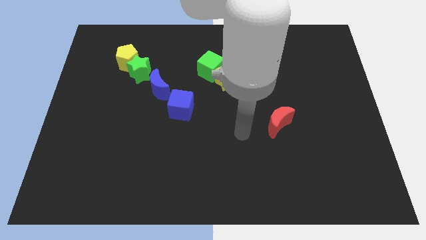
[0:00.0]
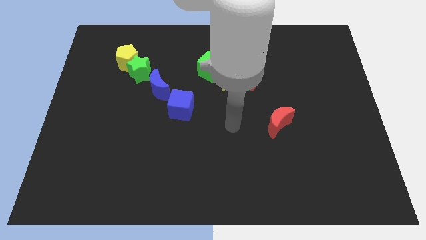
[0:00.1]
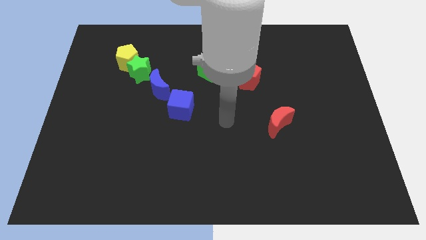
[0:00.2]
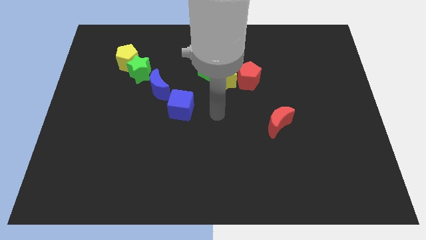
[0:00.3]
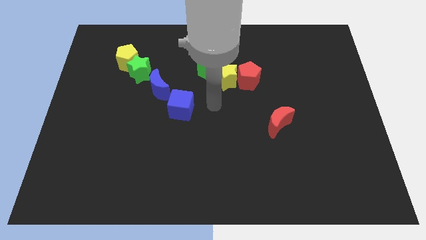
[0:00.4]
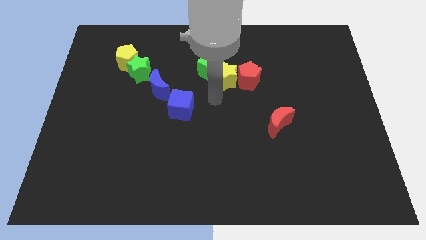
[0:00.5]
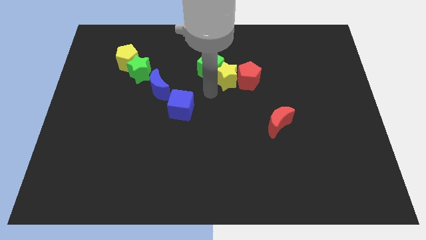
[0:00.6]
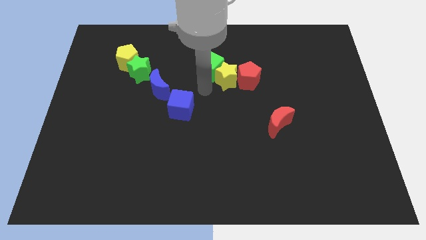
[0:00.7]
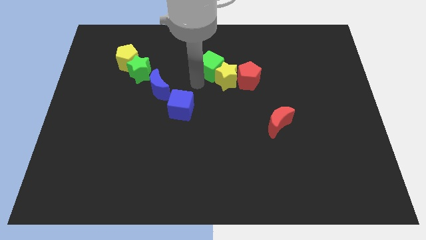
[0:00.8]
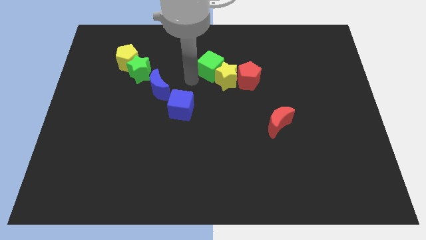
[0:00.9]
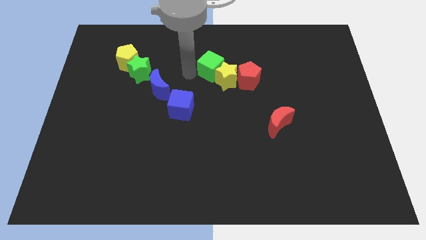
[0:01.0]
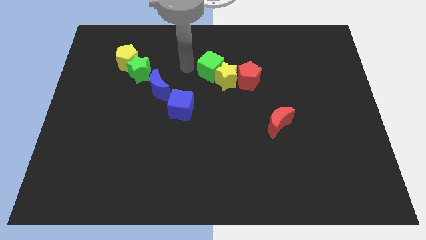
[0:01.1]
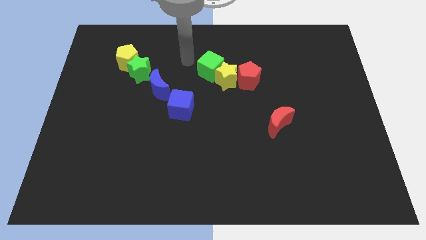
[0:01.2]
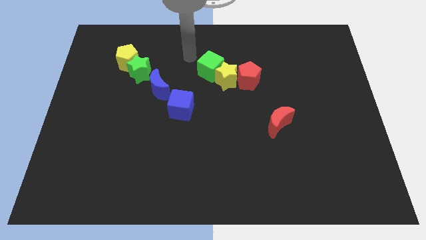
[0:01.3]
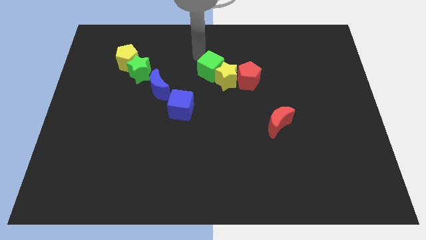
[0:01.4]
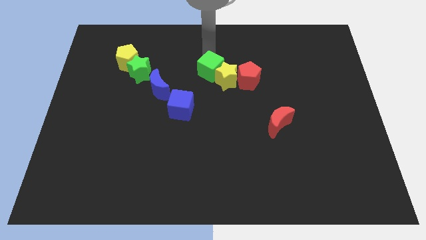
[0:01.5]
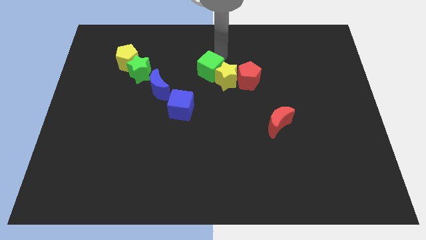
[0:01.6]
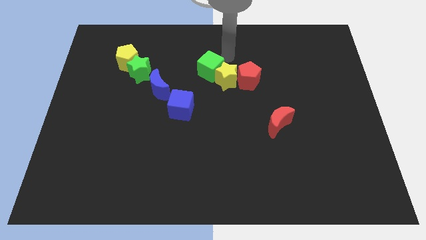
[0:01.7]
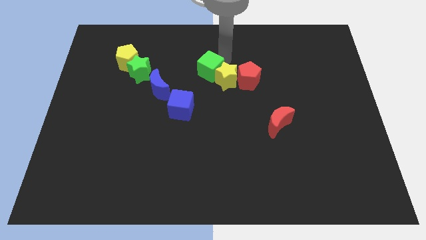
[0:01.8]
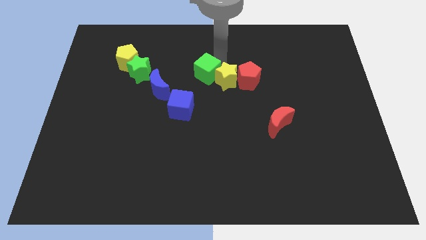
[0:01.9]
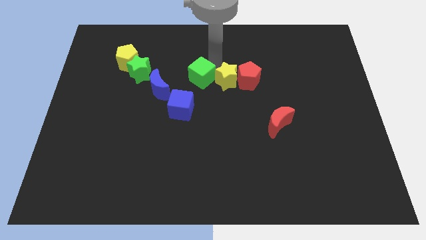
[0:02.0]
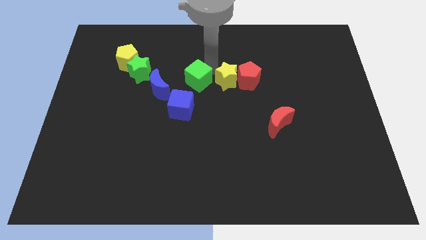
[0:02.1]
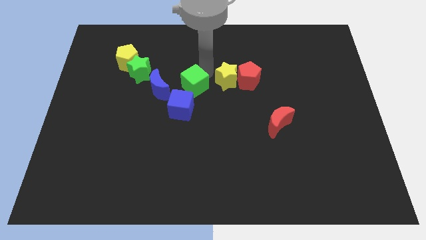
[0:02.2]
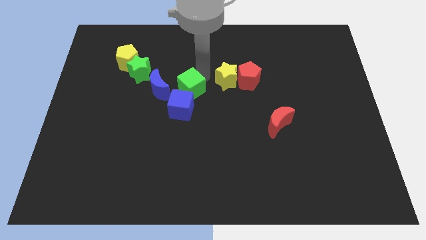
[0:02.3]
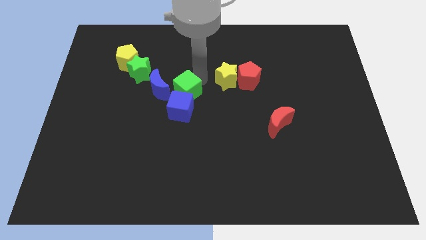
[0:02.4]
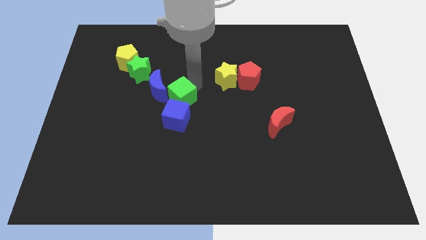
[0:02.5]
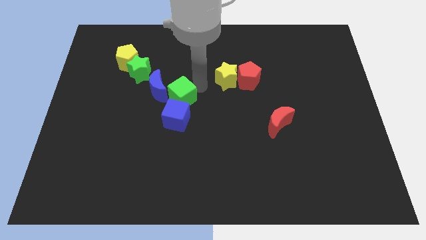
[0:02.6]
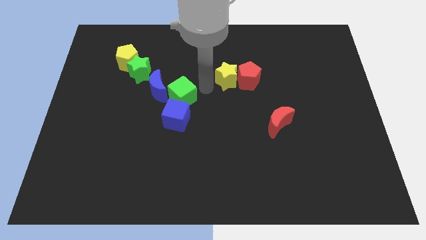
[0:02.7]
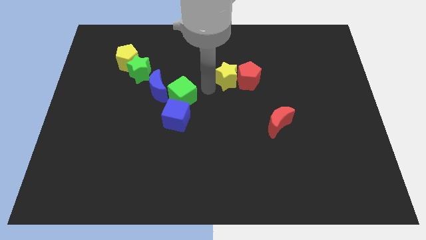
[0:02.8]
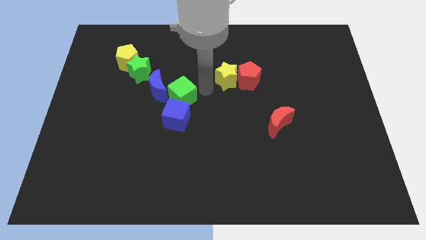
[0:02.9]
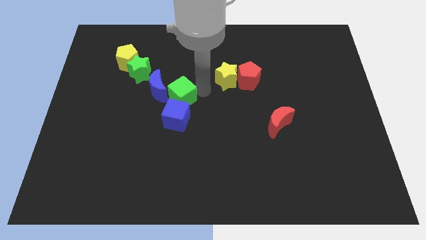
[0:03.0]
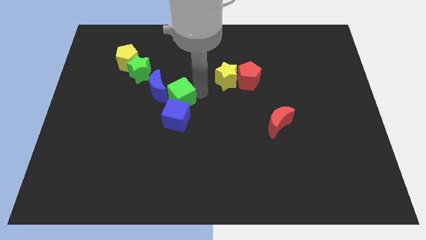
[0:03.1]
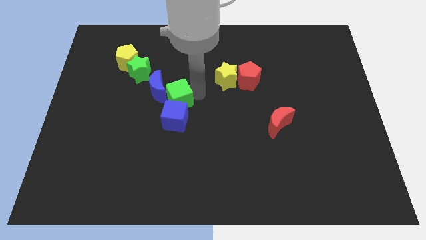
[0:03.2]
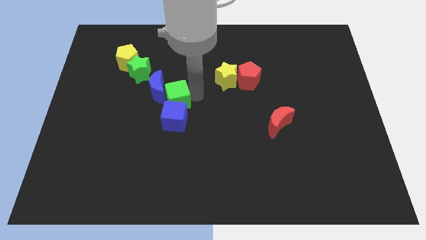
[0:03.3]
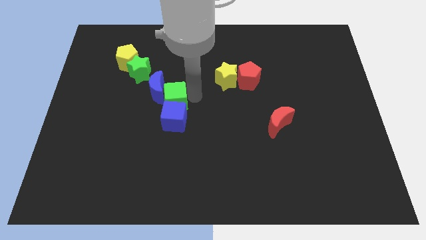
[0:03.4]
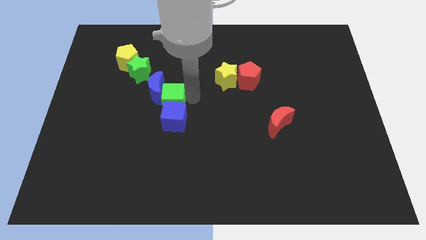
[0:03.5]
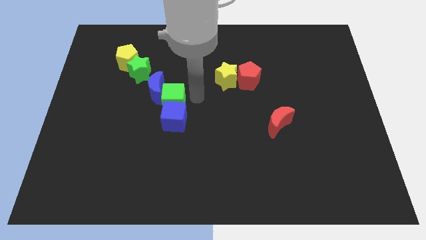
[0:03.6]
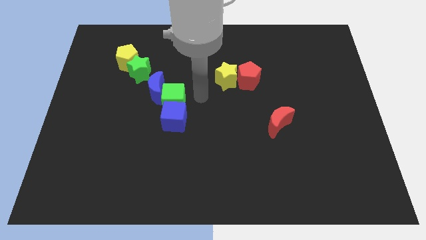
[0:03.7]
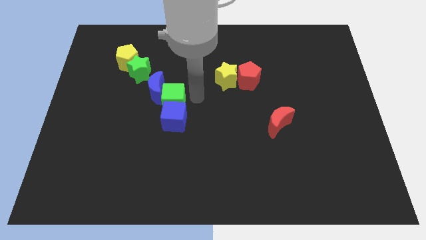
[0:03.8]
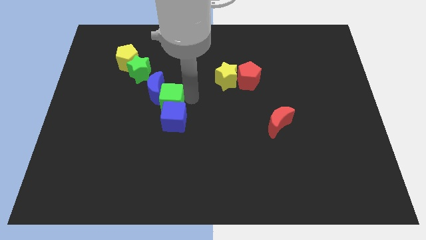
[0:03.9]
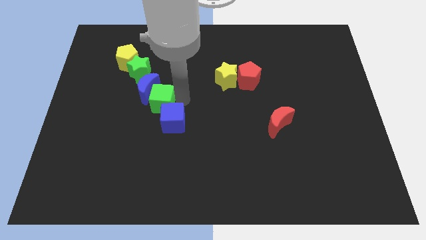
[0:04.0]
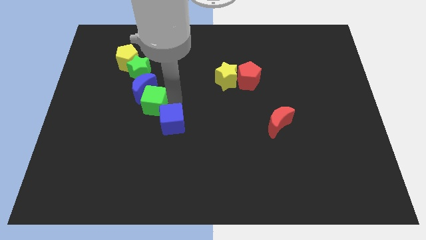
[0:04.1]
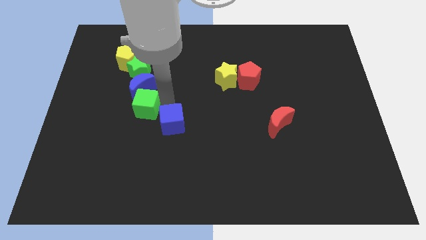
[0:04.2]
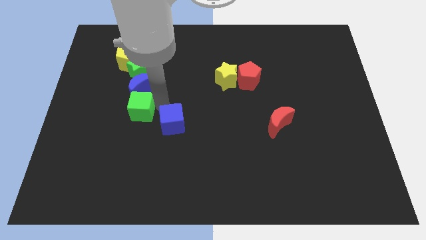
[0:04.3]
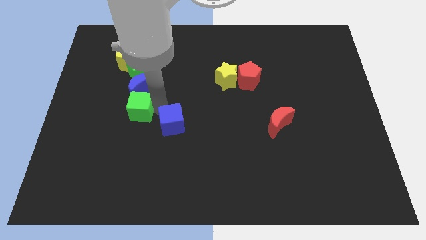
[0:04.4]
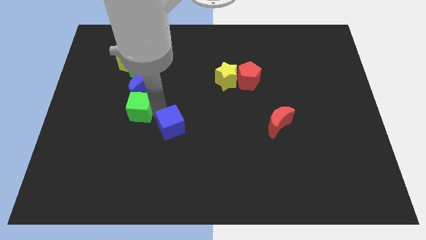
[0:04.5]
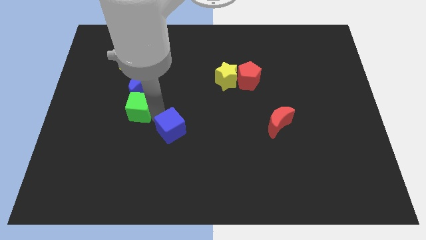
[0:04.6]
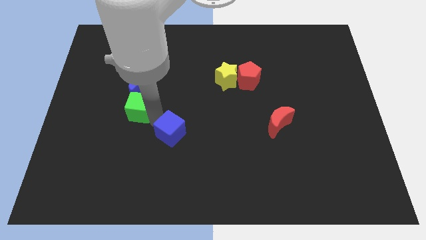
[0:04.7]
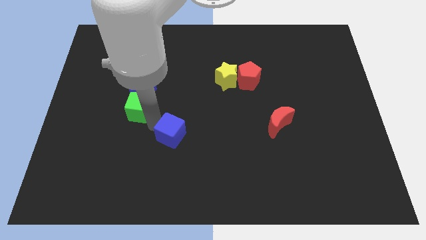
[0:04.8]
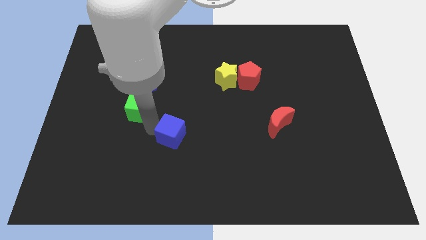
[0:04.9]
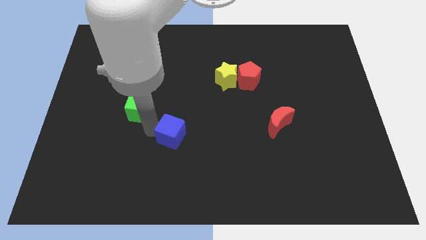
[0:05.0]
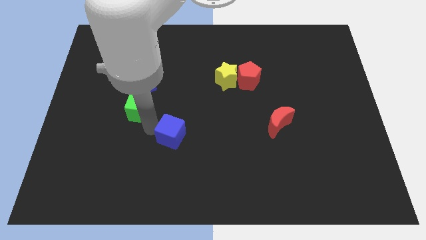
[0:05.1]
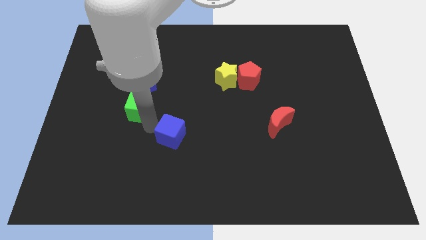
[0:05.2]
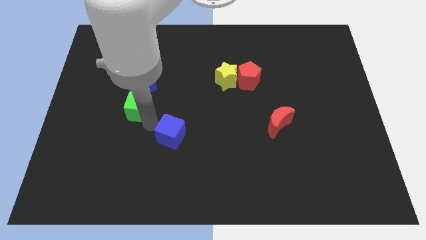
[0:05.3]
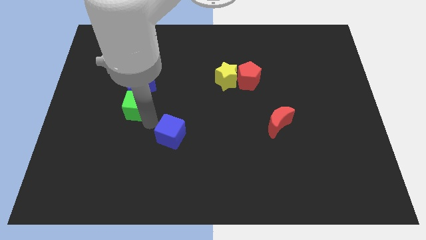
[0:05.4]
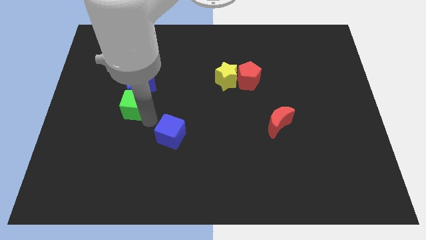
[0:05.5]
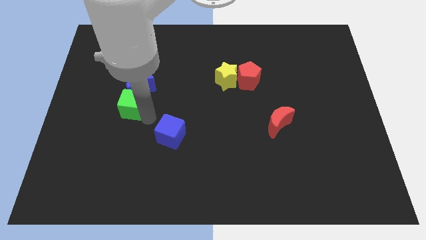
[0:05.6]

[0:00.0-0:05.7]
push the green cube to the bottom of the yellow pentagon
